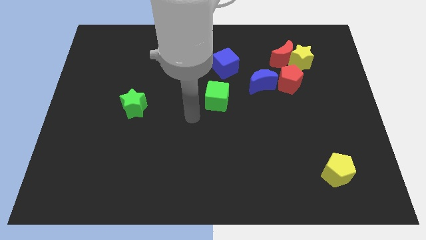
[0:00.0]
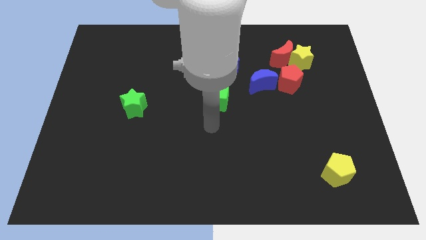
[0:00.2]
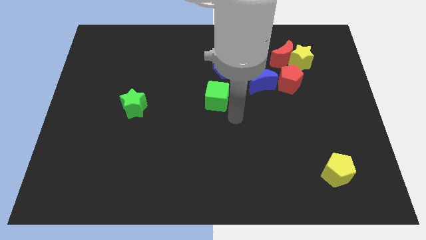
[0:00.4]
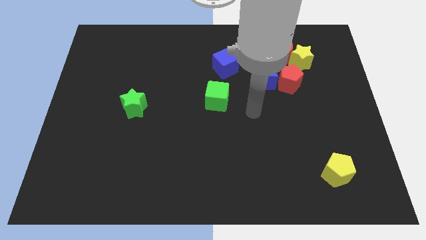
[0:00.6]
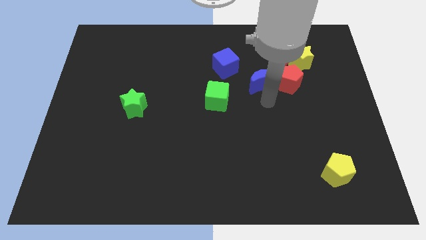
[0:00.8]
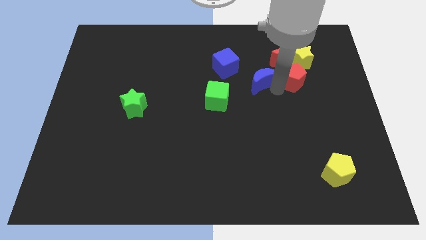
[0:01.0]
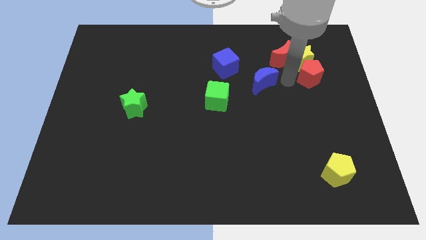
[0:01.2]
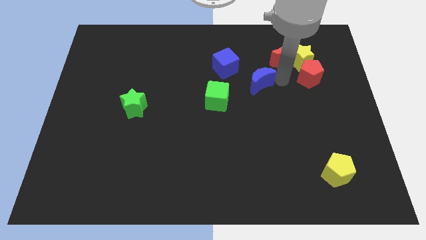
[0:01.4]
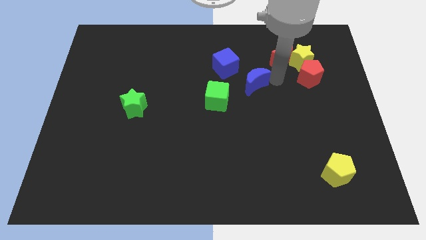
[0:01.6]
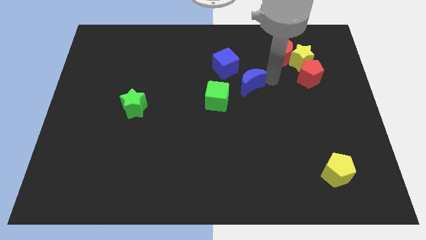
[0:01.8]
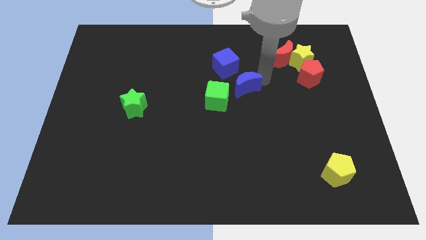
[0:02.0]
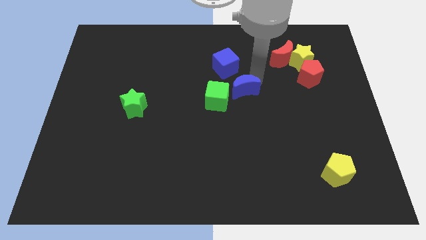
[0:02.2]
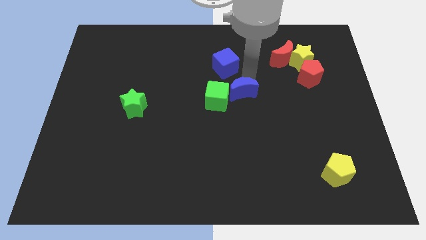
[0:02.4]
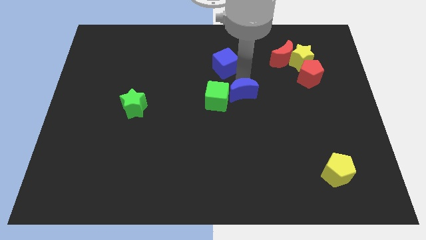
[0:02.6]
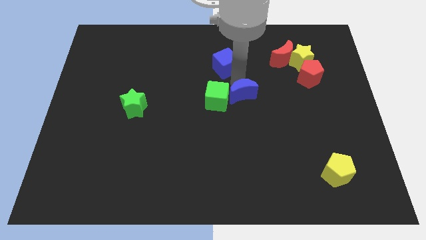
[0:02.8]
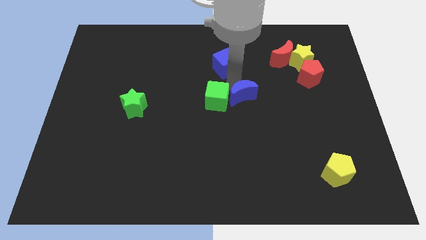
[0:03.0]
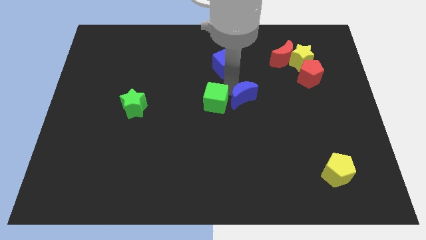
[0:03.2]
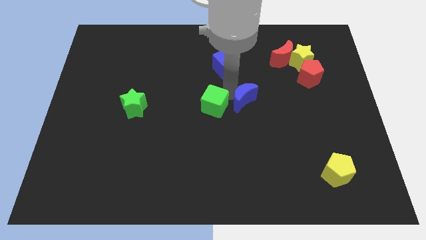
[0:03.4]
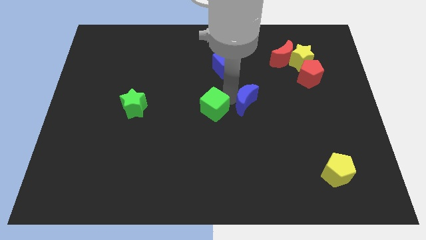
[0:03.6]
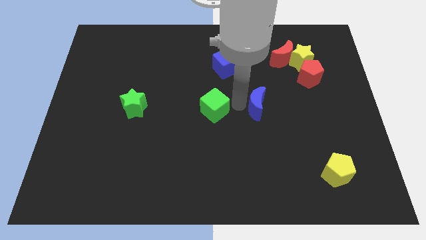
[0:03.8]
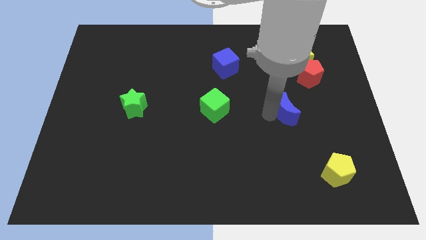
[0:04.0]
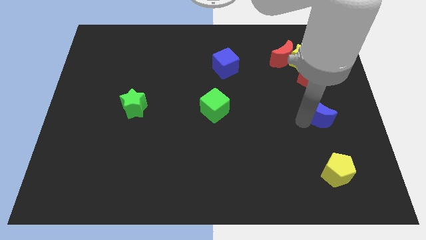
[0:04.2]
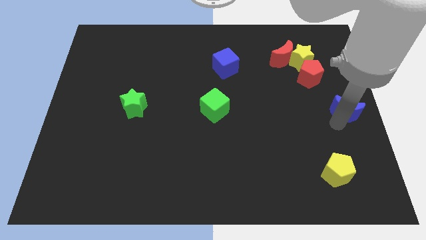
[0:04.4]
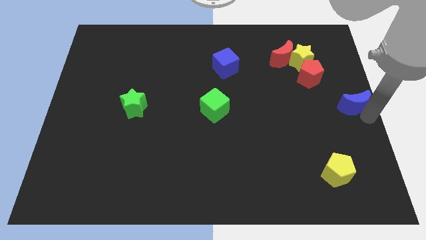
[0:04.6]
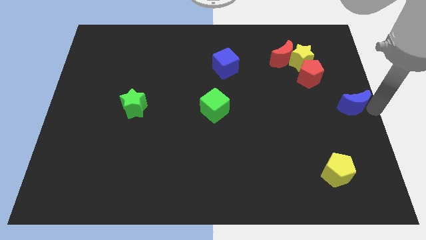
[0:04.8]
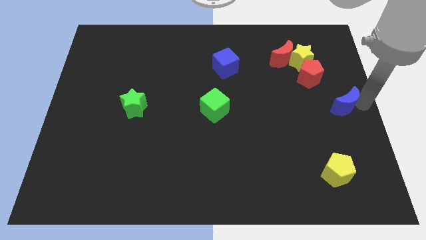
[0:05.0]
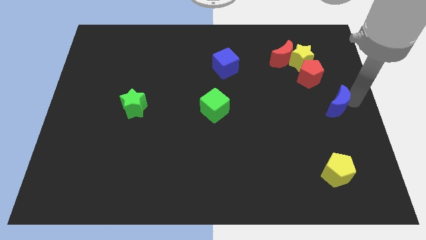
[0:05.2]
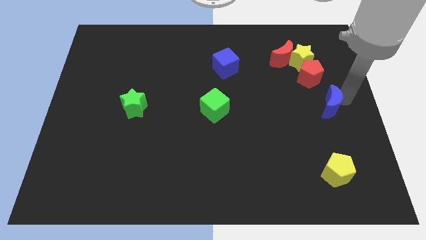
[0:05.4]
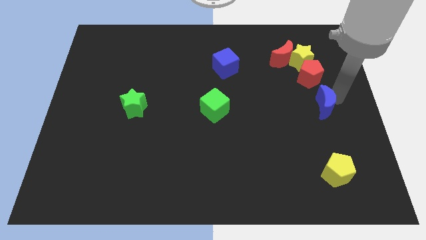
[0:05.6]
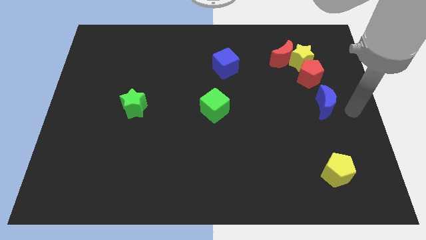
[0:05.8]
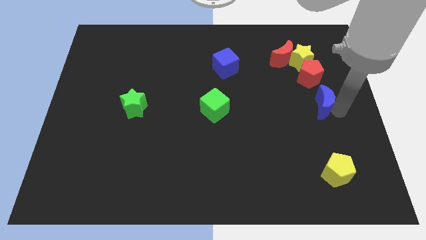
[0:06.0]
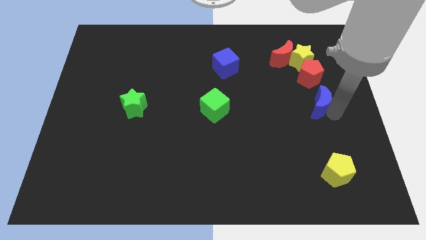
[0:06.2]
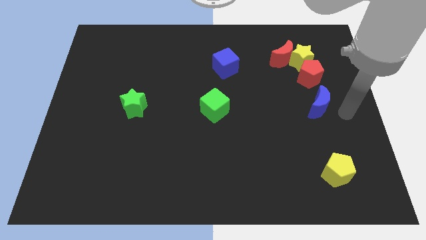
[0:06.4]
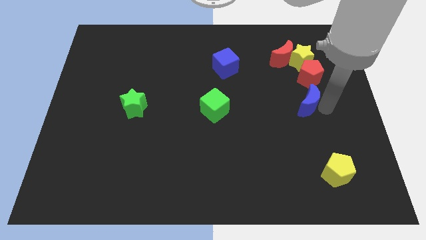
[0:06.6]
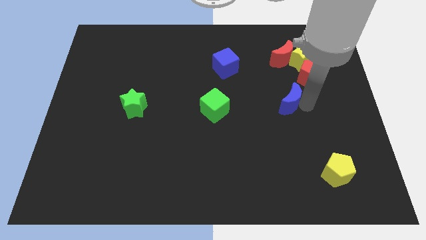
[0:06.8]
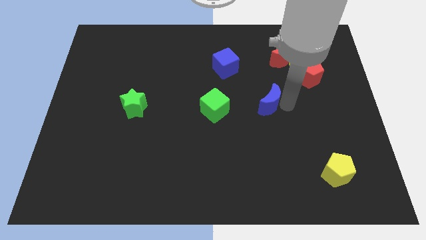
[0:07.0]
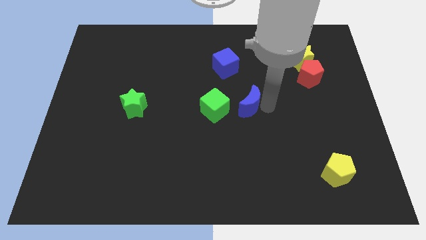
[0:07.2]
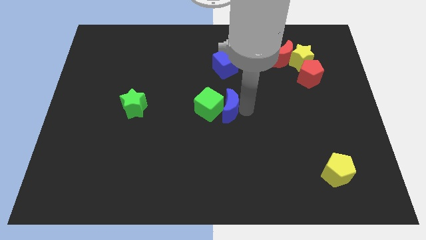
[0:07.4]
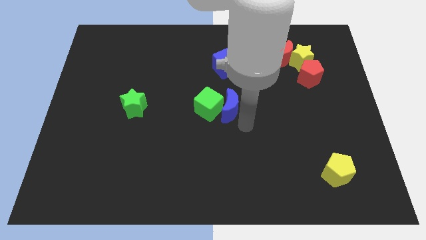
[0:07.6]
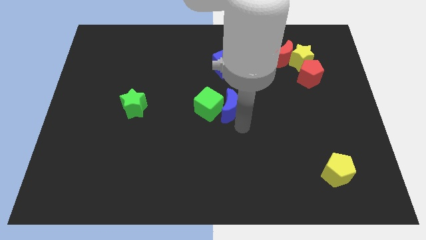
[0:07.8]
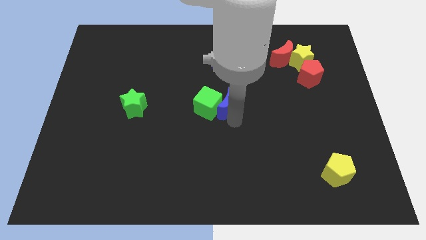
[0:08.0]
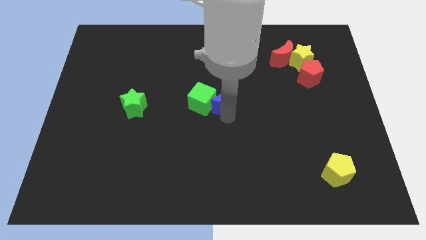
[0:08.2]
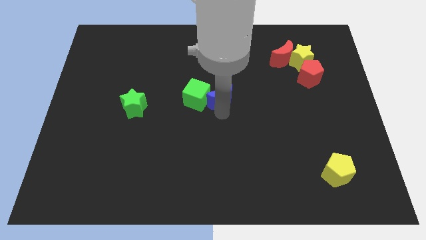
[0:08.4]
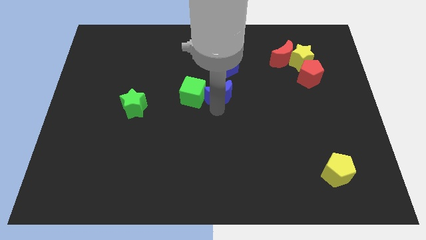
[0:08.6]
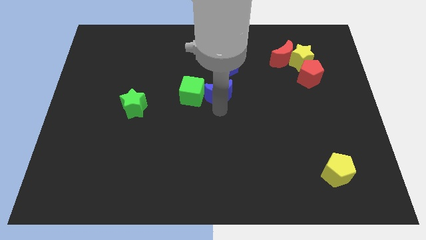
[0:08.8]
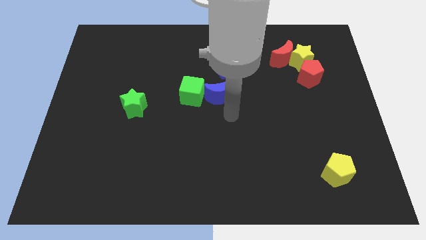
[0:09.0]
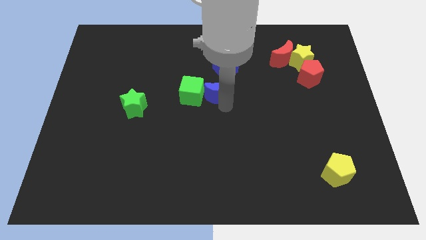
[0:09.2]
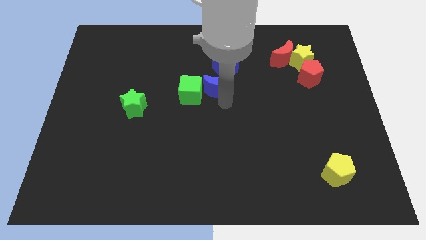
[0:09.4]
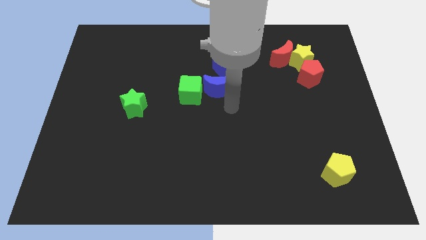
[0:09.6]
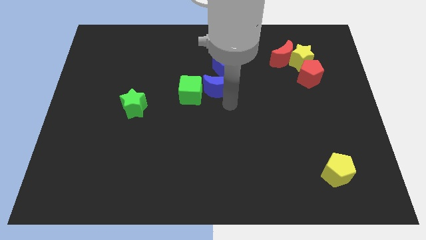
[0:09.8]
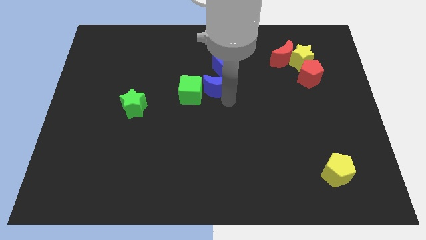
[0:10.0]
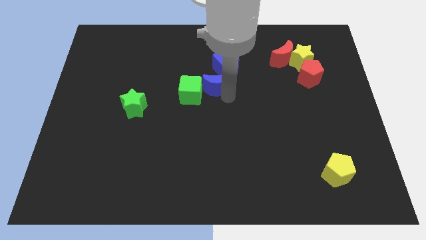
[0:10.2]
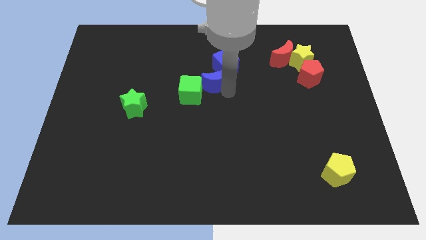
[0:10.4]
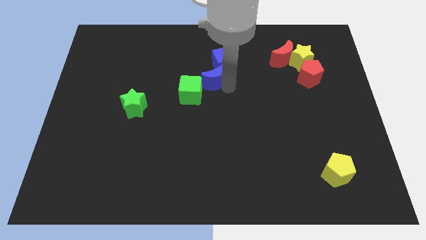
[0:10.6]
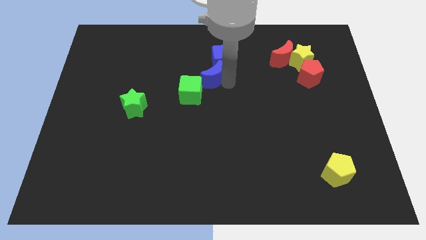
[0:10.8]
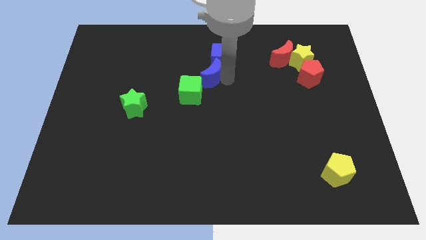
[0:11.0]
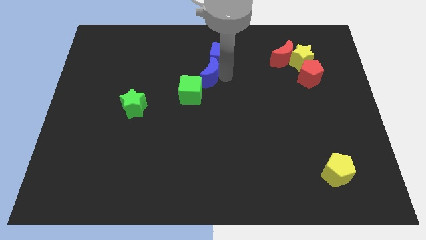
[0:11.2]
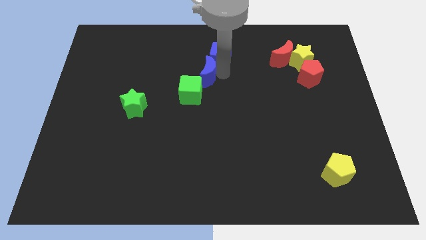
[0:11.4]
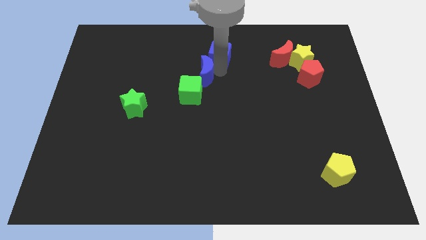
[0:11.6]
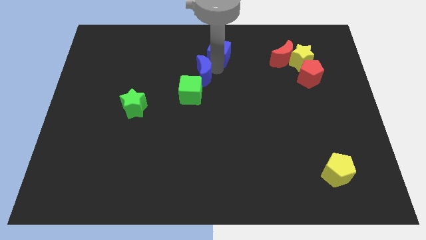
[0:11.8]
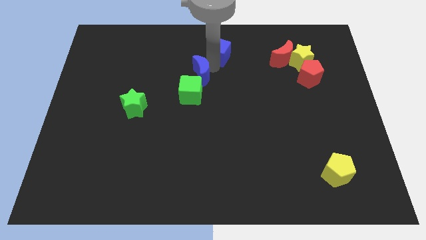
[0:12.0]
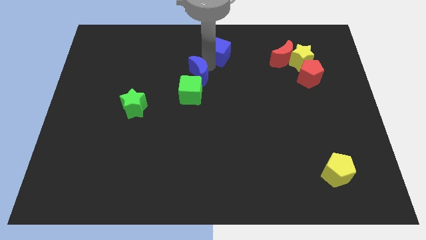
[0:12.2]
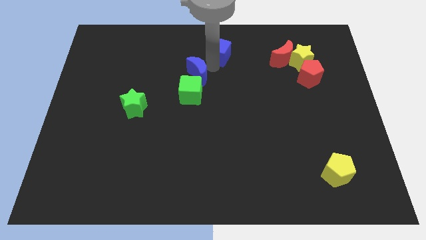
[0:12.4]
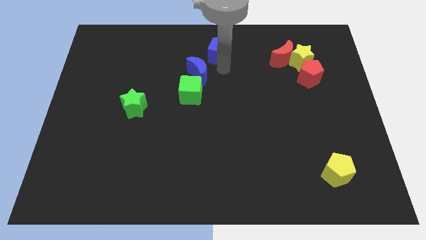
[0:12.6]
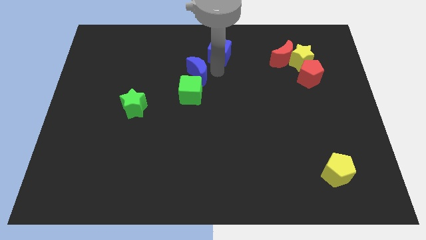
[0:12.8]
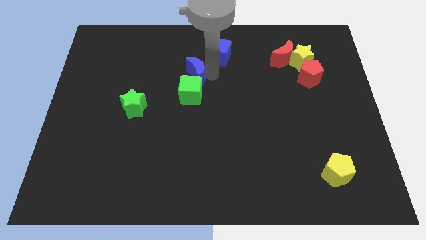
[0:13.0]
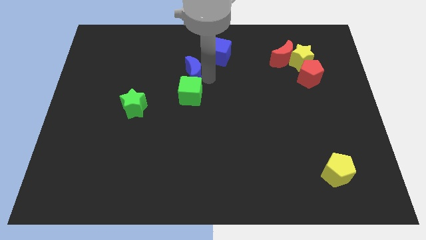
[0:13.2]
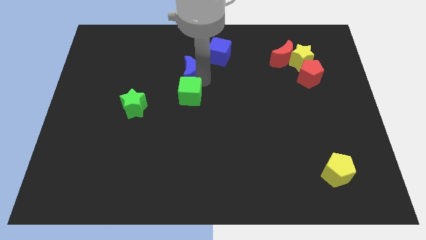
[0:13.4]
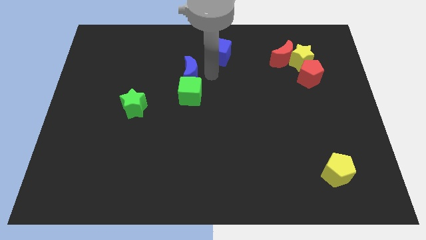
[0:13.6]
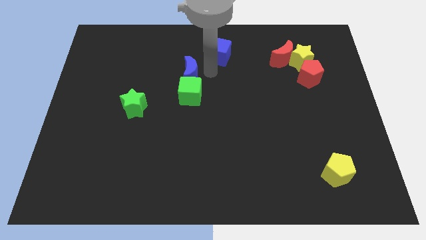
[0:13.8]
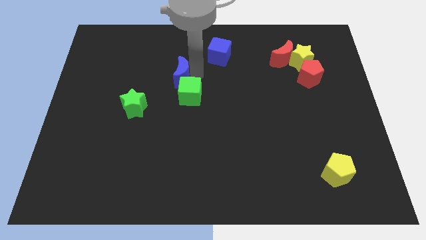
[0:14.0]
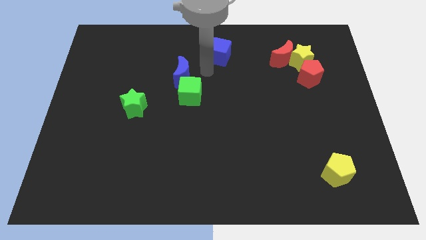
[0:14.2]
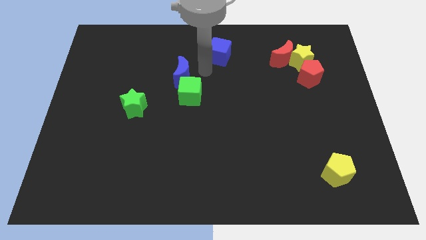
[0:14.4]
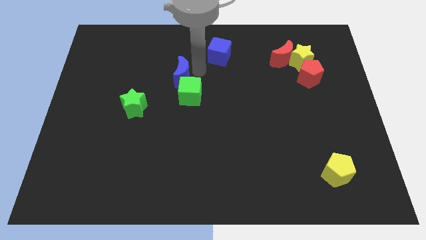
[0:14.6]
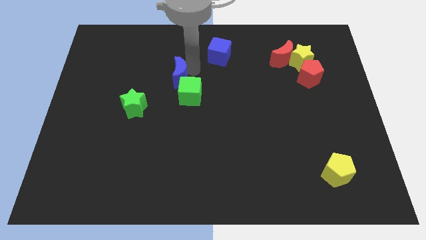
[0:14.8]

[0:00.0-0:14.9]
push the blue moon to the left
